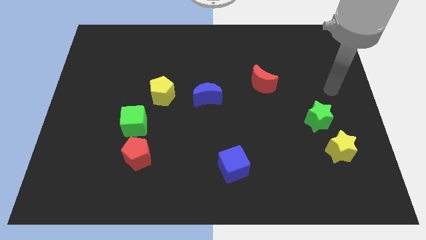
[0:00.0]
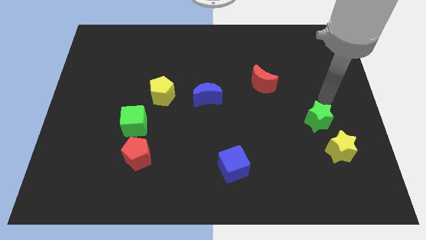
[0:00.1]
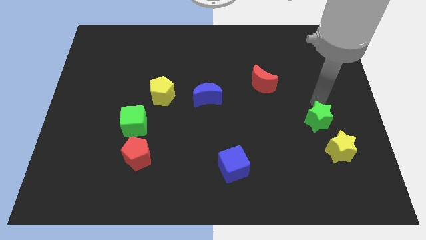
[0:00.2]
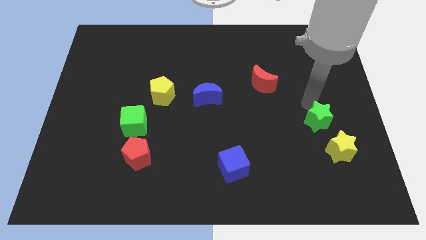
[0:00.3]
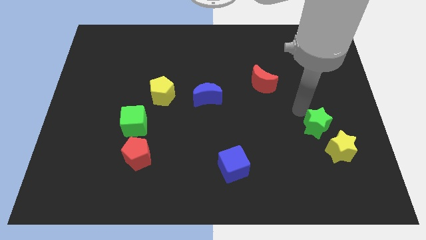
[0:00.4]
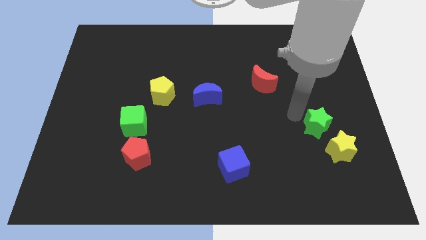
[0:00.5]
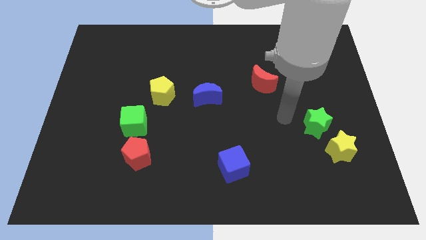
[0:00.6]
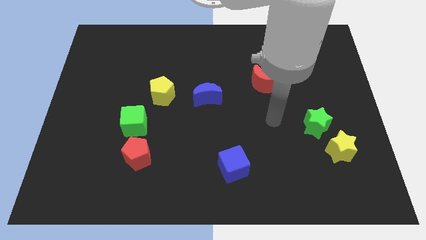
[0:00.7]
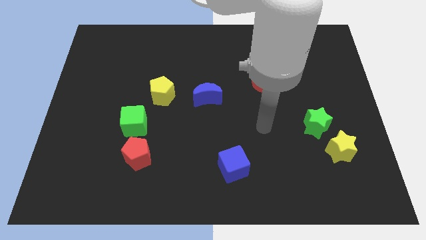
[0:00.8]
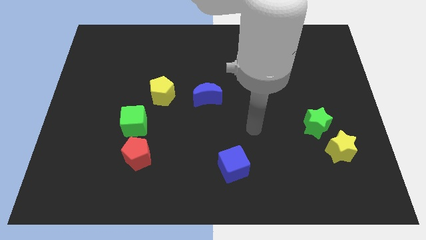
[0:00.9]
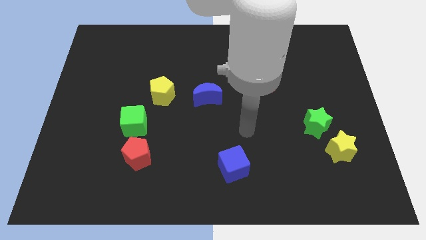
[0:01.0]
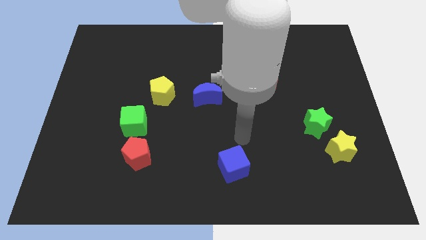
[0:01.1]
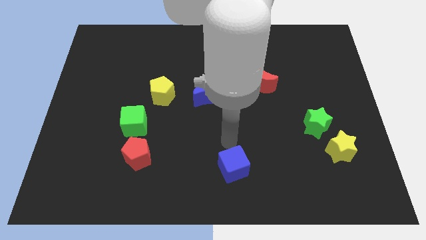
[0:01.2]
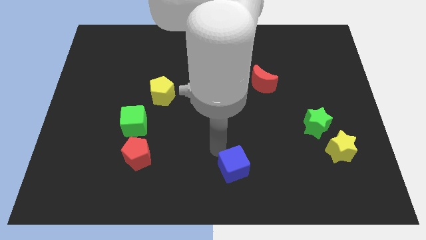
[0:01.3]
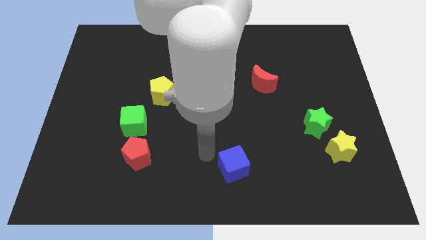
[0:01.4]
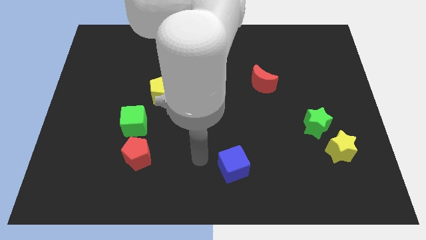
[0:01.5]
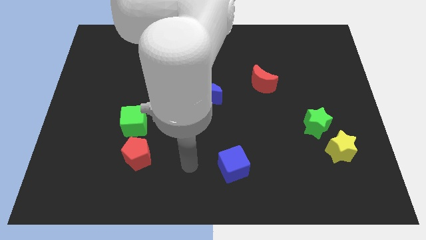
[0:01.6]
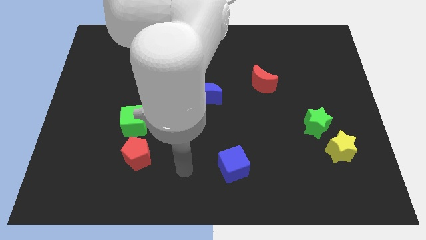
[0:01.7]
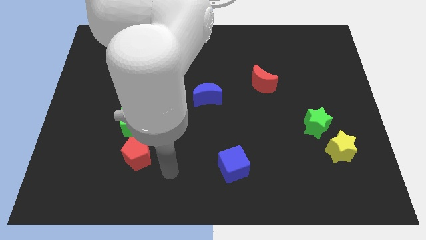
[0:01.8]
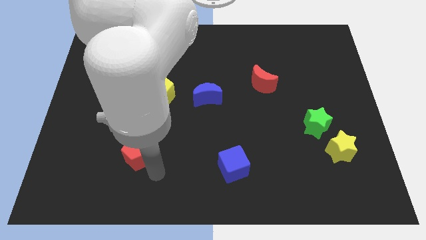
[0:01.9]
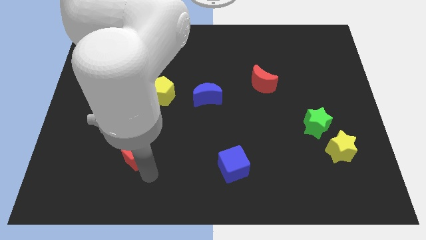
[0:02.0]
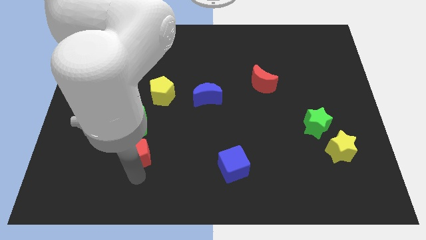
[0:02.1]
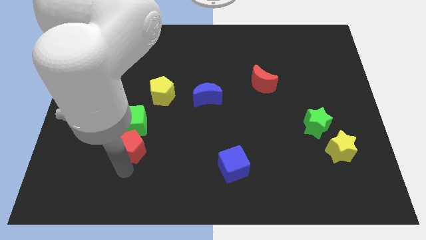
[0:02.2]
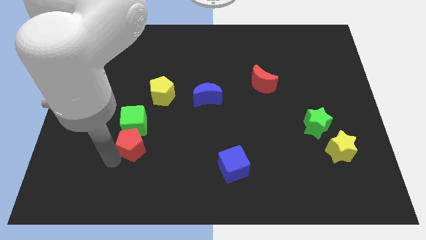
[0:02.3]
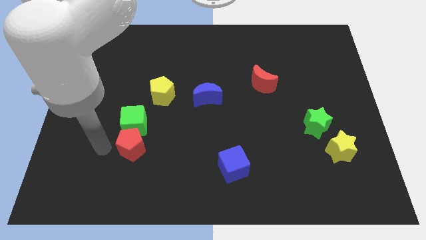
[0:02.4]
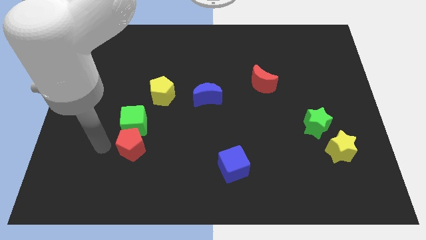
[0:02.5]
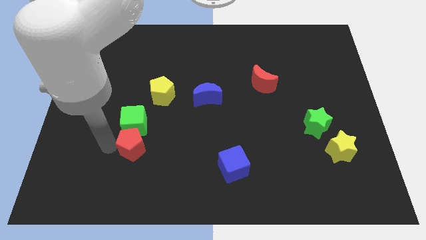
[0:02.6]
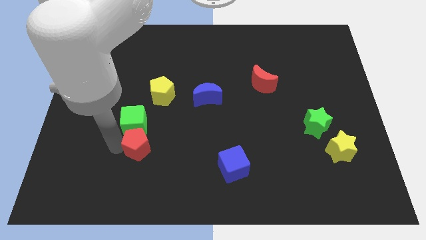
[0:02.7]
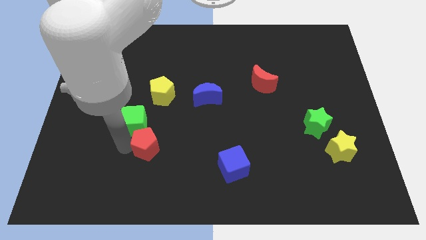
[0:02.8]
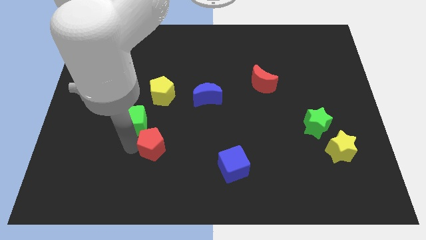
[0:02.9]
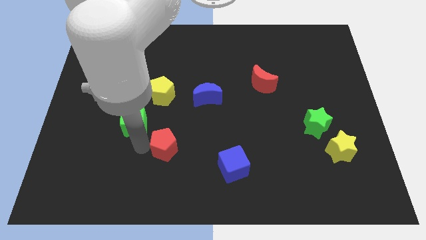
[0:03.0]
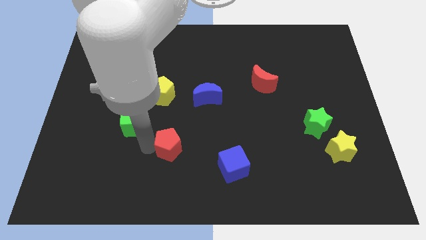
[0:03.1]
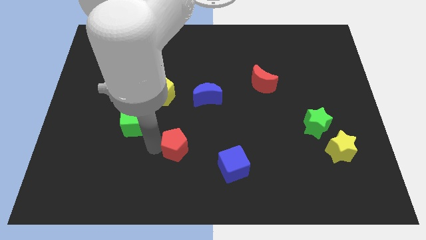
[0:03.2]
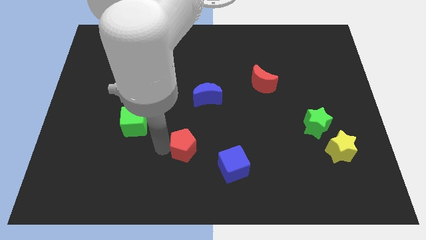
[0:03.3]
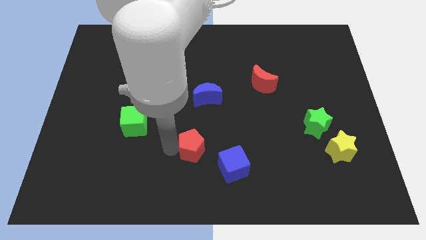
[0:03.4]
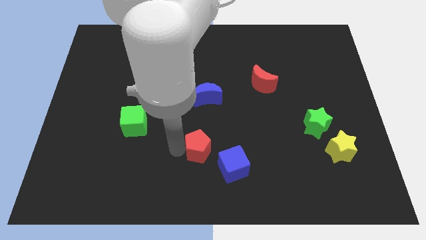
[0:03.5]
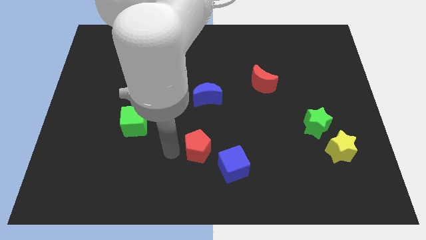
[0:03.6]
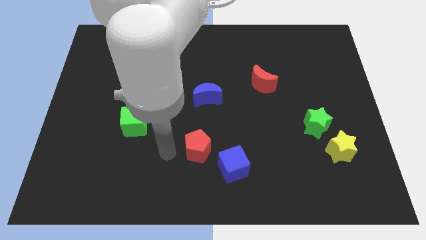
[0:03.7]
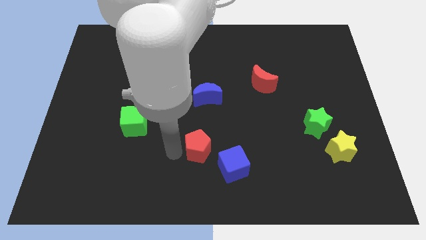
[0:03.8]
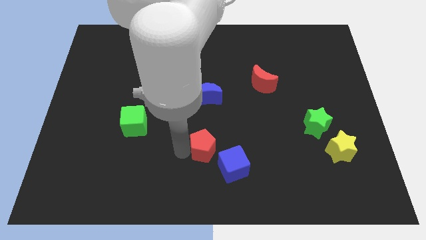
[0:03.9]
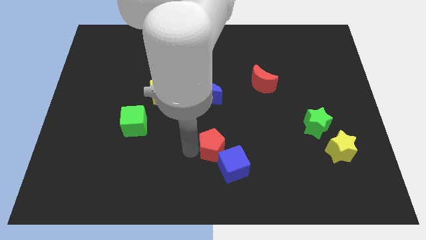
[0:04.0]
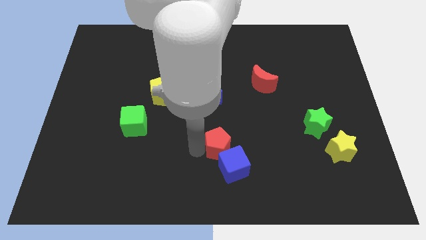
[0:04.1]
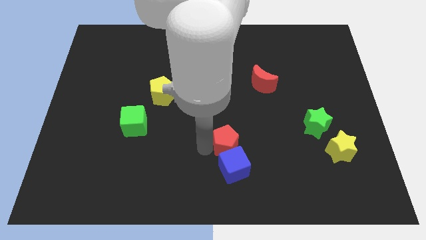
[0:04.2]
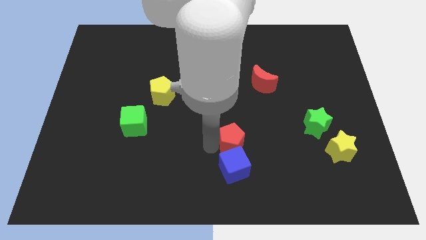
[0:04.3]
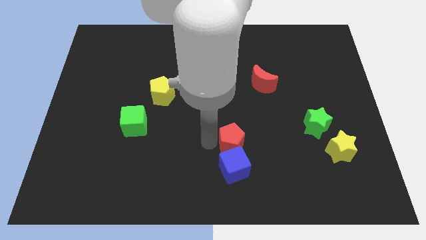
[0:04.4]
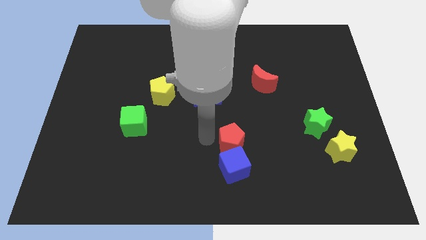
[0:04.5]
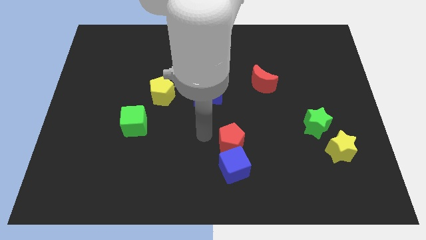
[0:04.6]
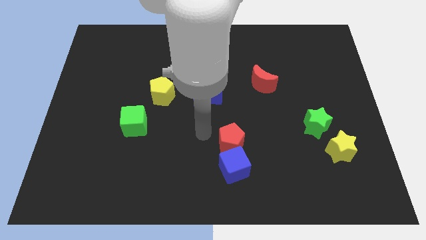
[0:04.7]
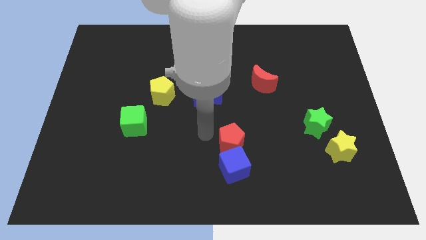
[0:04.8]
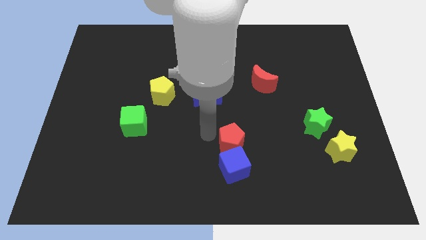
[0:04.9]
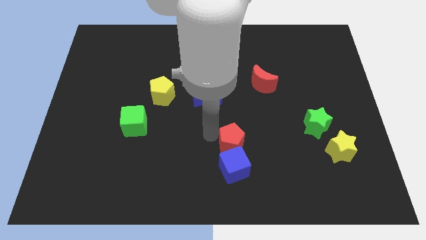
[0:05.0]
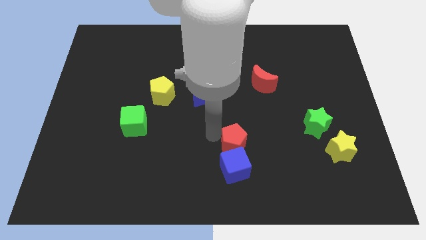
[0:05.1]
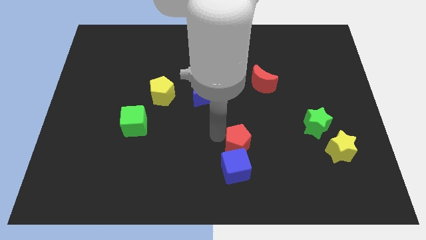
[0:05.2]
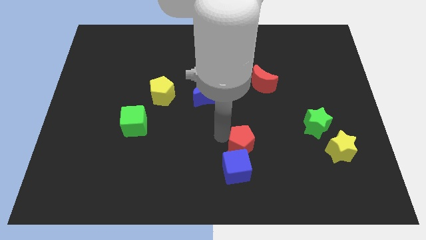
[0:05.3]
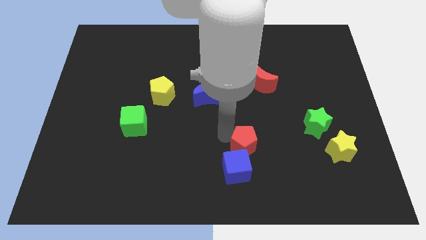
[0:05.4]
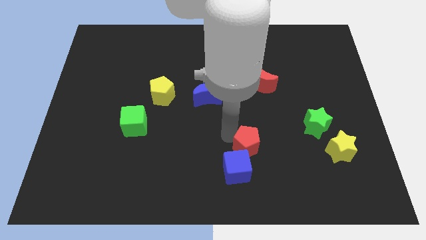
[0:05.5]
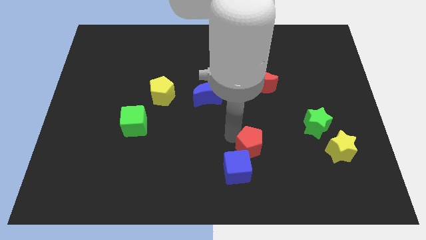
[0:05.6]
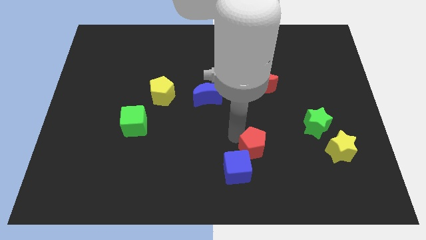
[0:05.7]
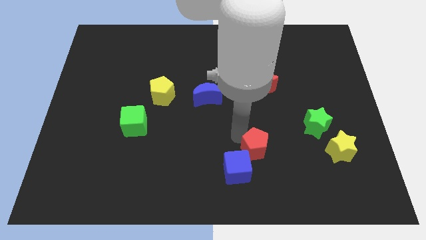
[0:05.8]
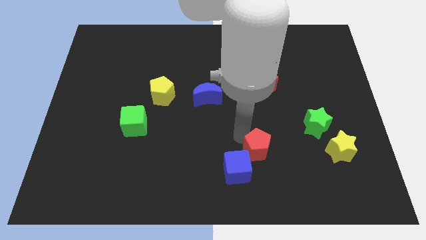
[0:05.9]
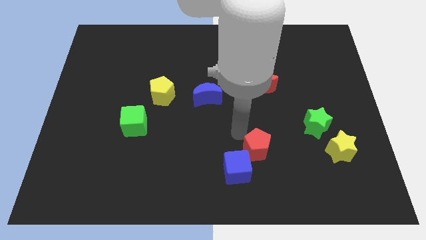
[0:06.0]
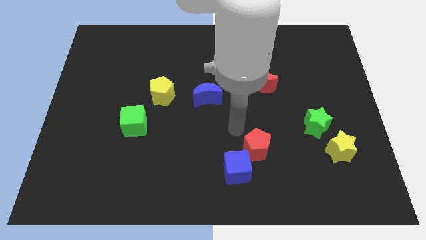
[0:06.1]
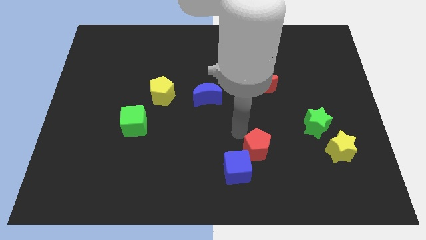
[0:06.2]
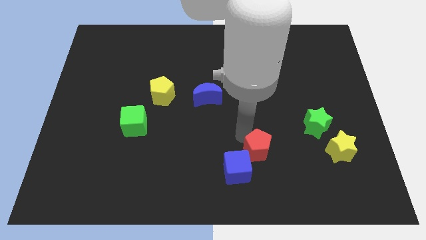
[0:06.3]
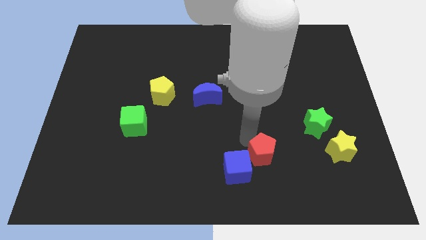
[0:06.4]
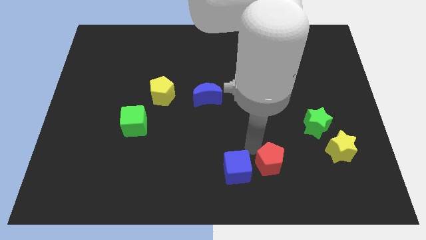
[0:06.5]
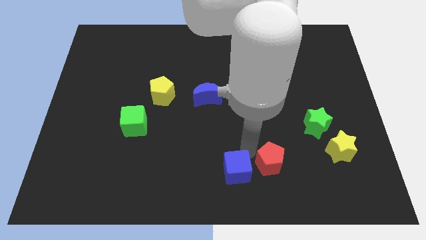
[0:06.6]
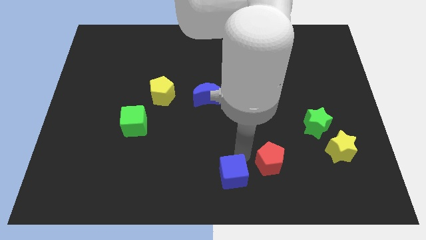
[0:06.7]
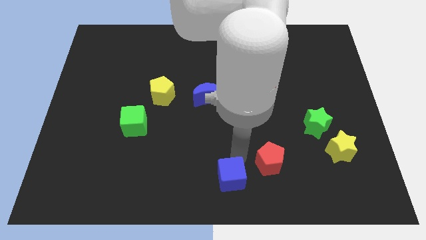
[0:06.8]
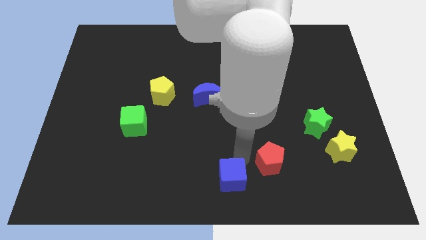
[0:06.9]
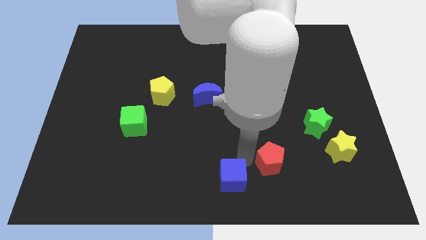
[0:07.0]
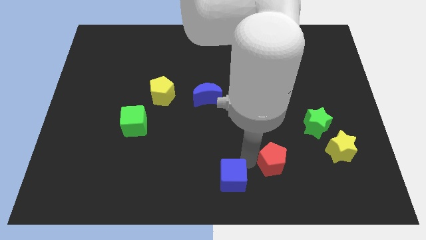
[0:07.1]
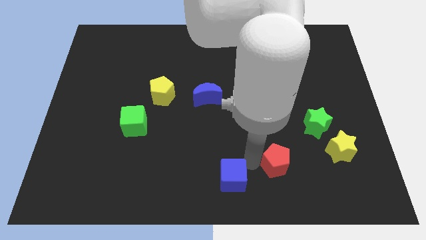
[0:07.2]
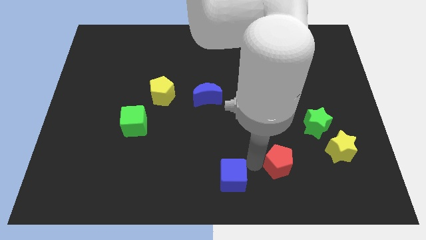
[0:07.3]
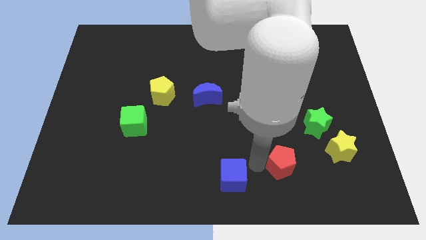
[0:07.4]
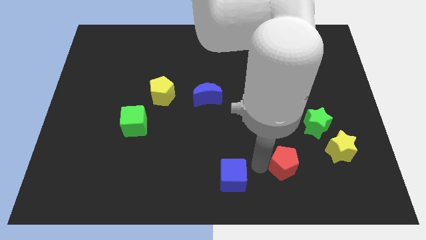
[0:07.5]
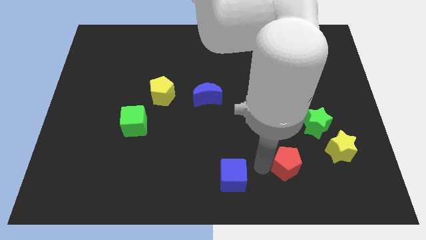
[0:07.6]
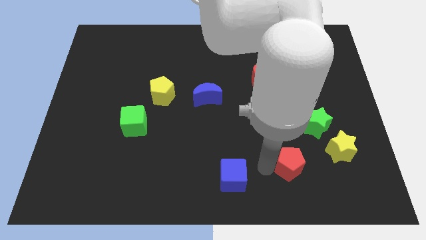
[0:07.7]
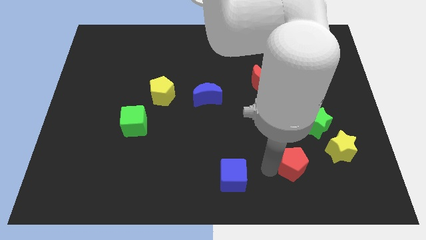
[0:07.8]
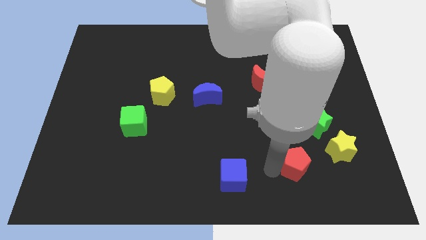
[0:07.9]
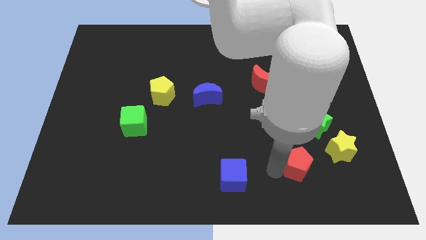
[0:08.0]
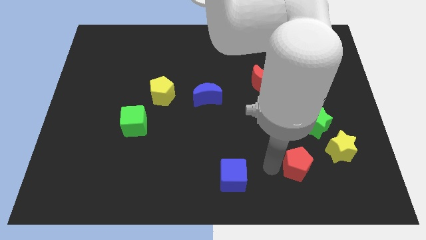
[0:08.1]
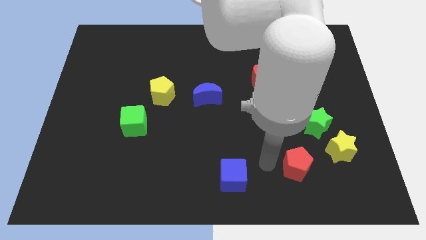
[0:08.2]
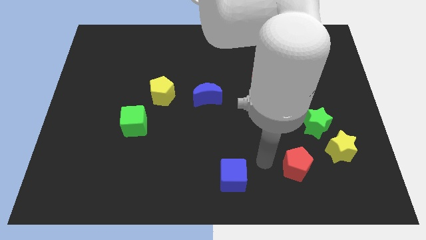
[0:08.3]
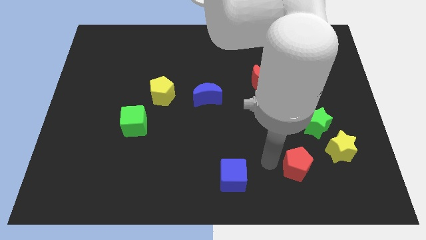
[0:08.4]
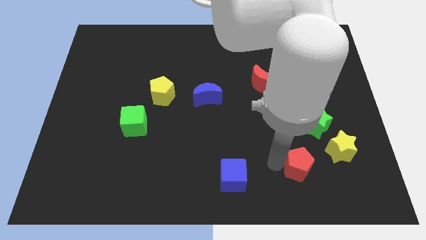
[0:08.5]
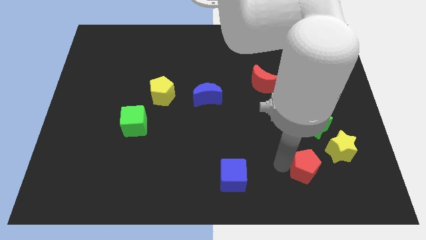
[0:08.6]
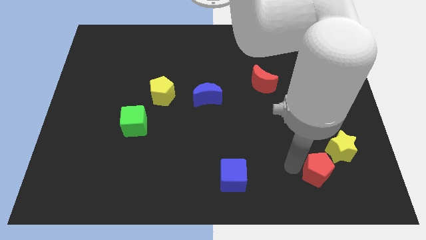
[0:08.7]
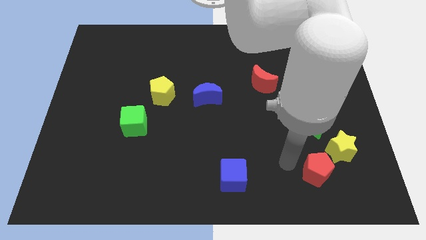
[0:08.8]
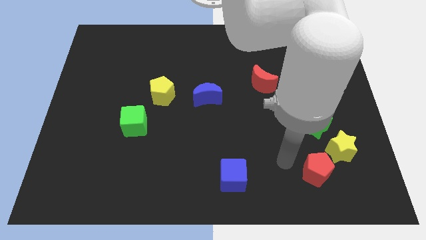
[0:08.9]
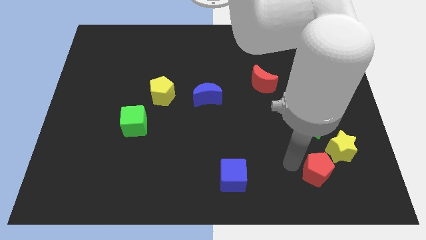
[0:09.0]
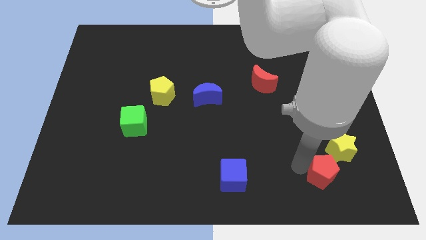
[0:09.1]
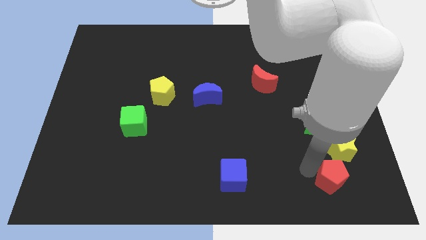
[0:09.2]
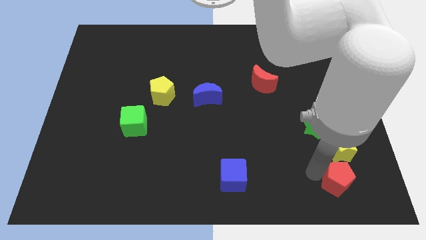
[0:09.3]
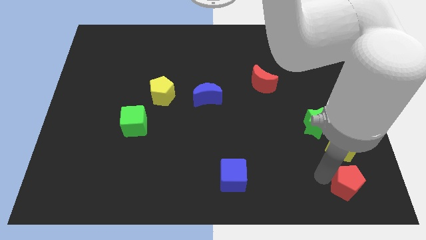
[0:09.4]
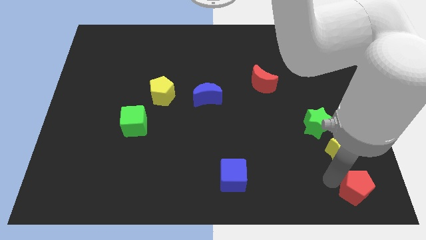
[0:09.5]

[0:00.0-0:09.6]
slide the red pentagon to the bottom right of the board
